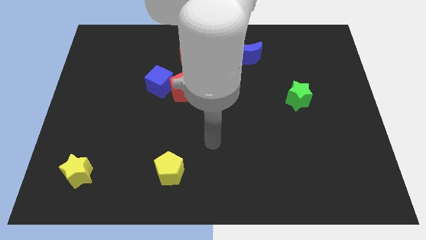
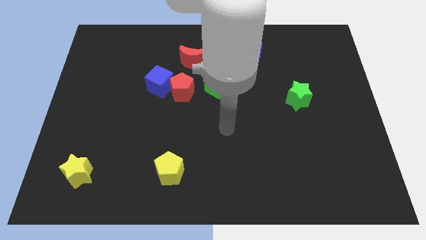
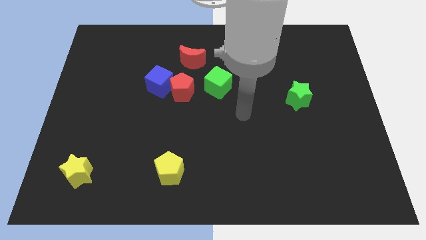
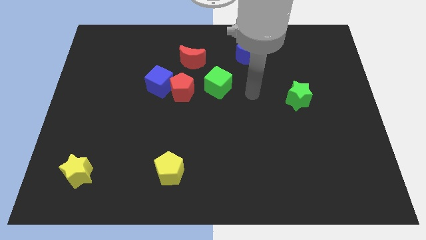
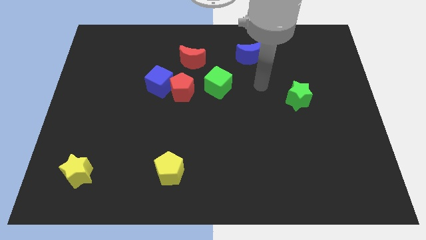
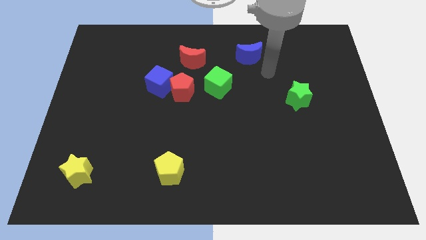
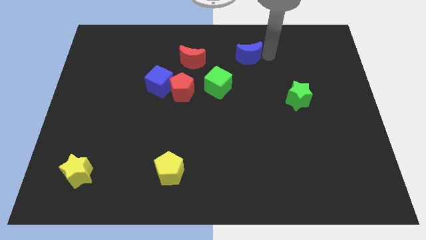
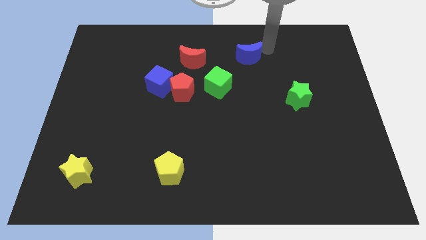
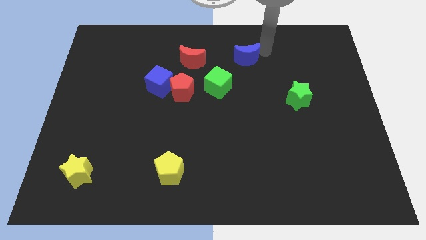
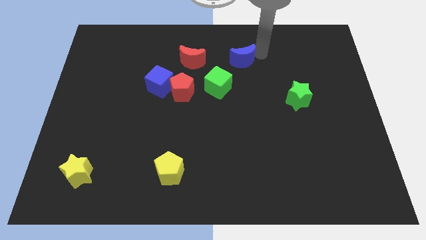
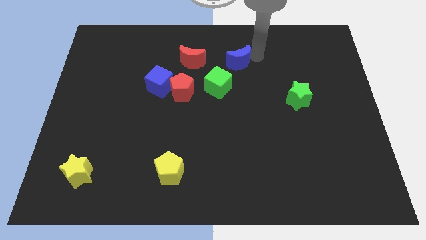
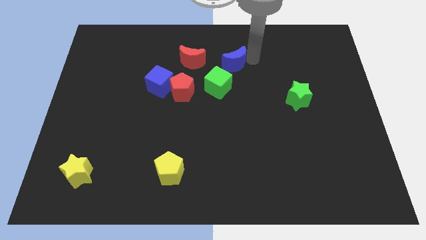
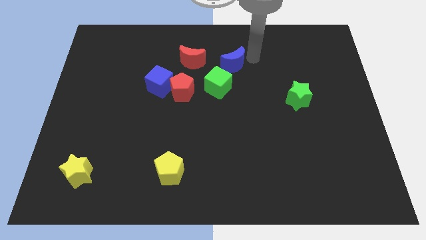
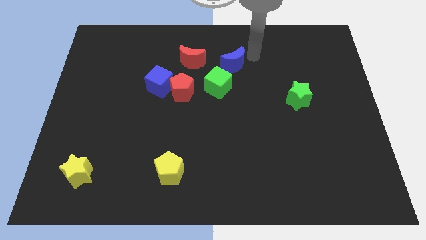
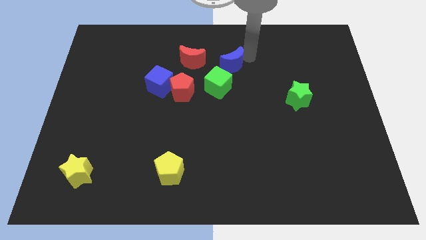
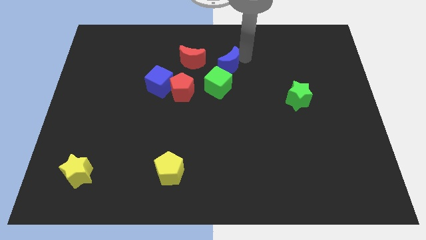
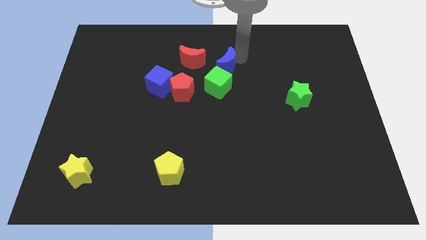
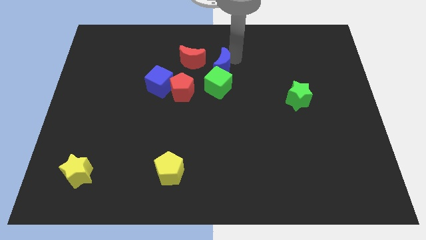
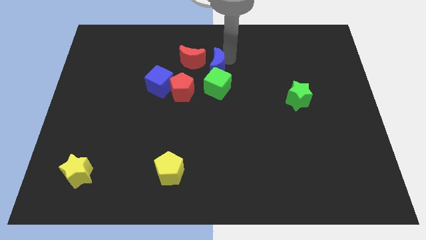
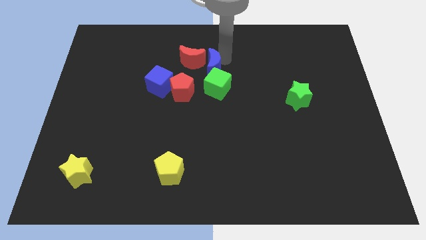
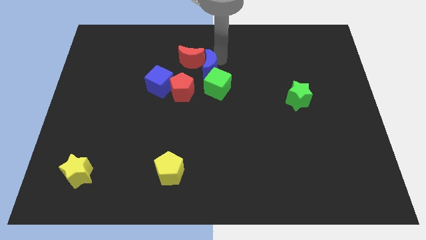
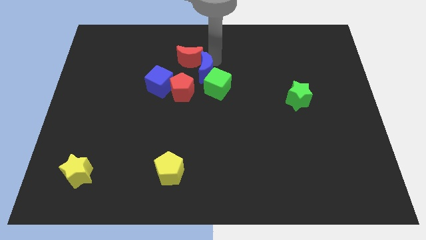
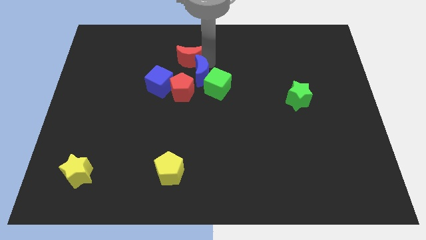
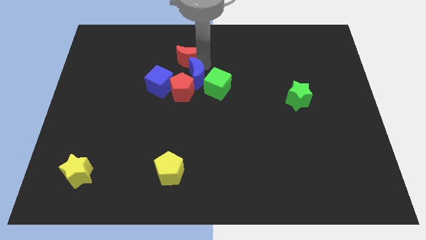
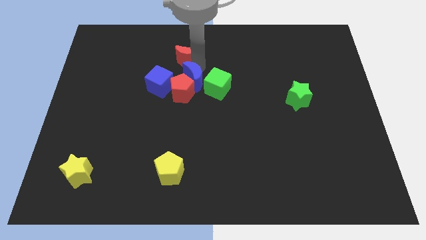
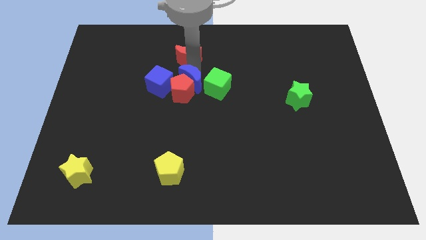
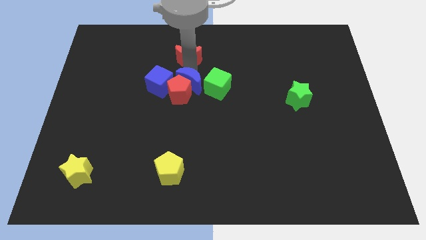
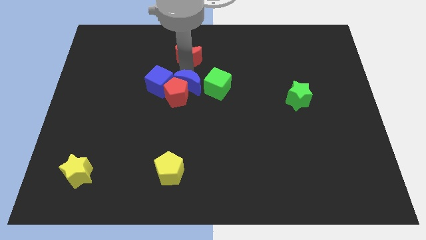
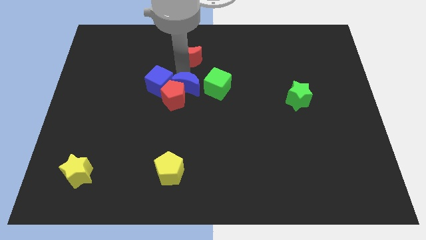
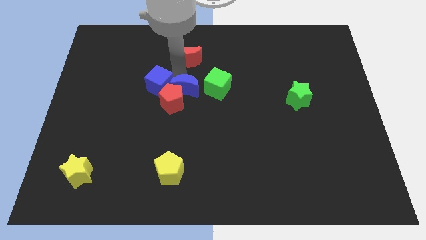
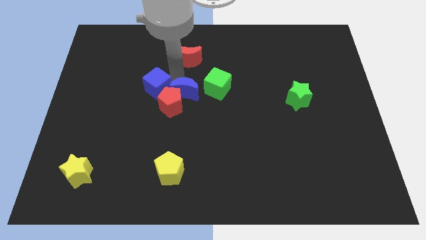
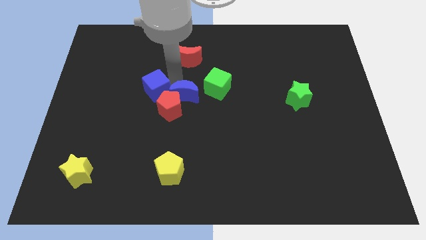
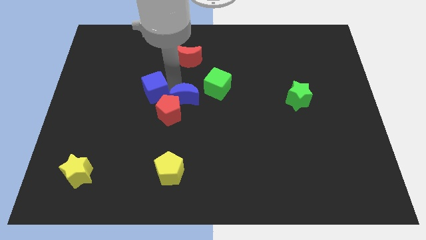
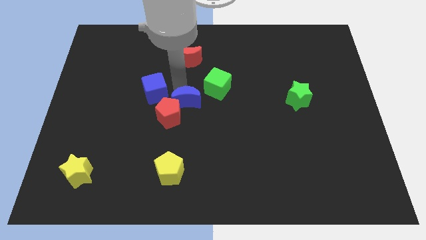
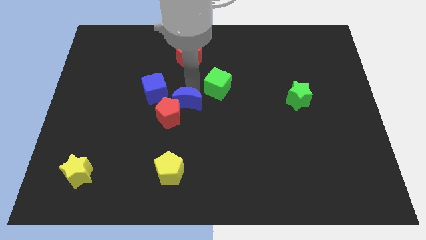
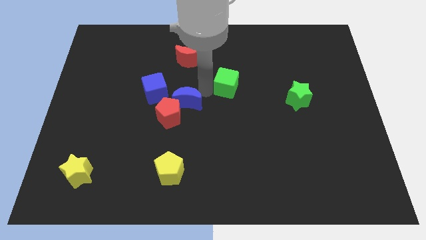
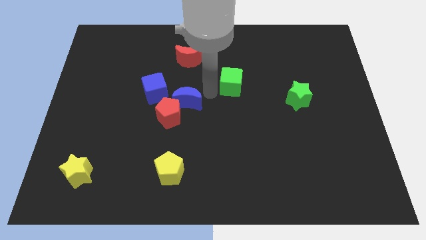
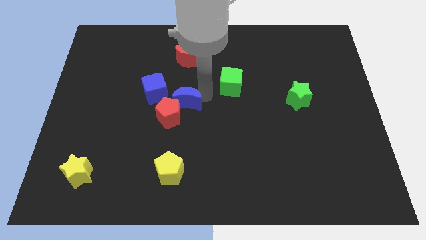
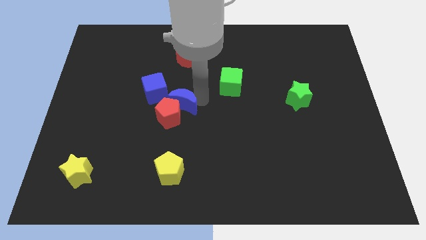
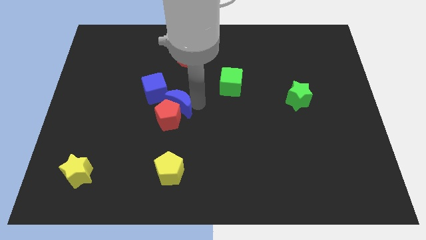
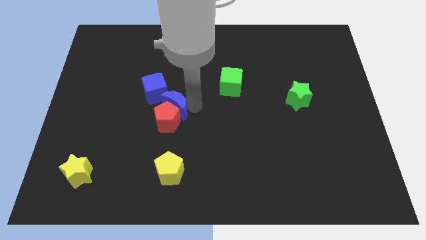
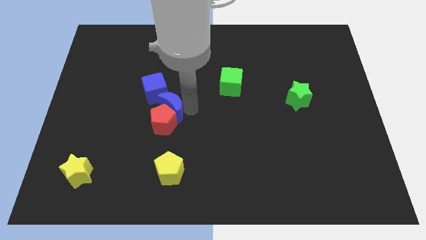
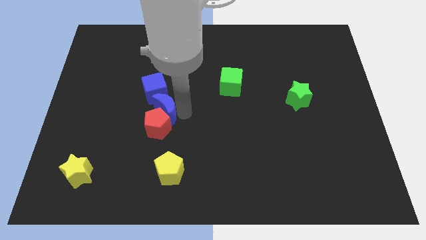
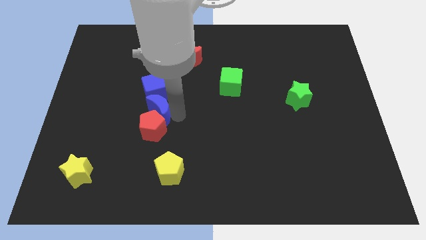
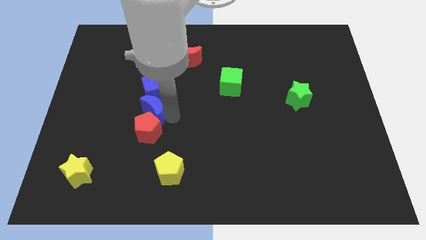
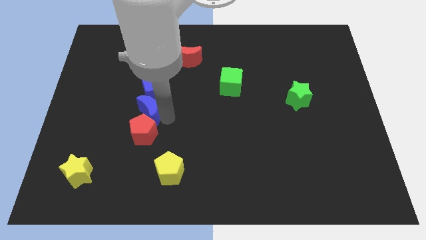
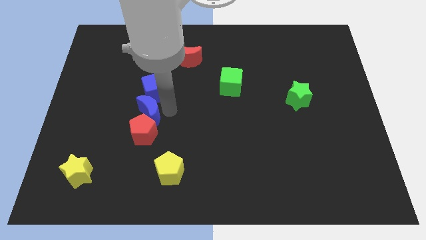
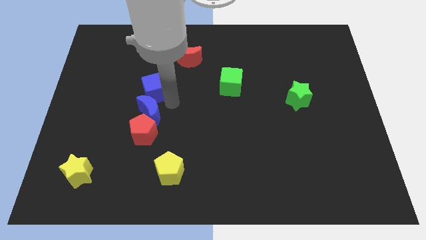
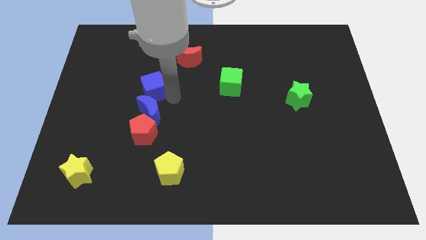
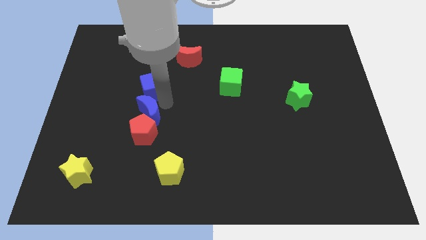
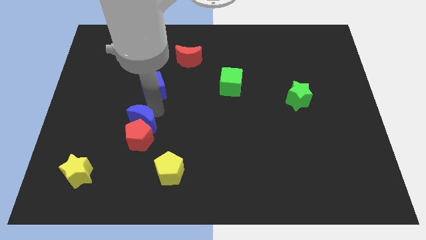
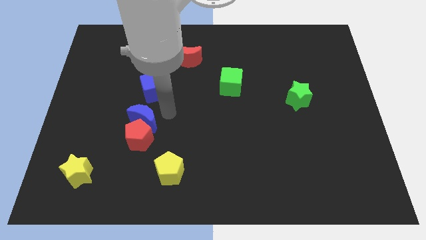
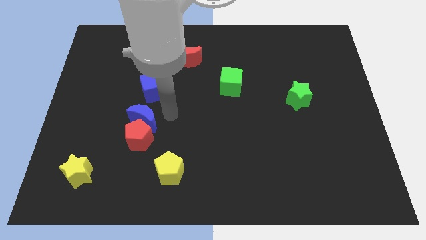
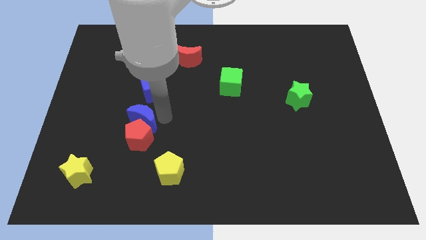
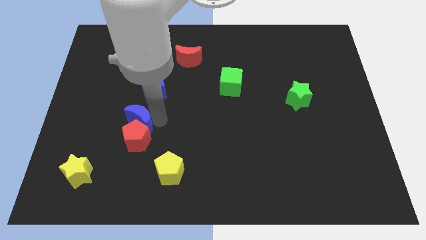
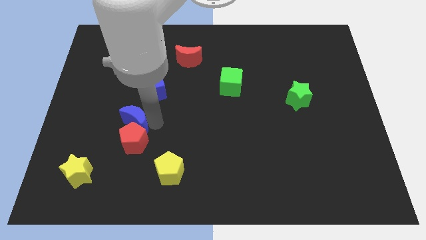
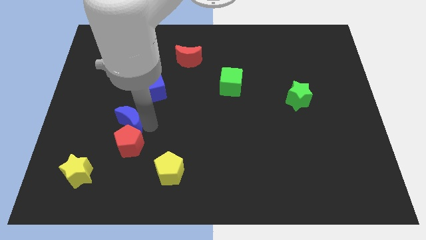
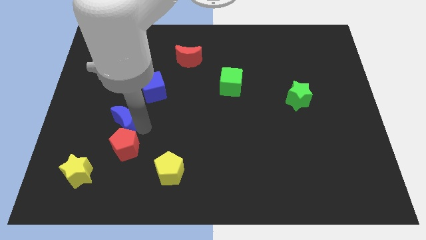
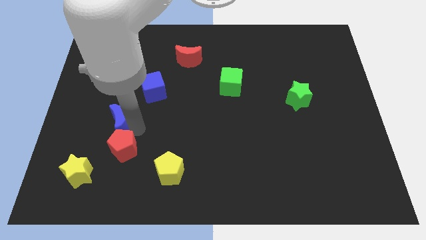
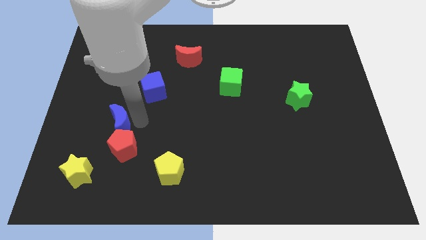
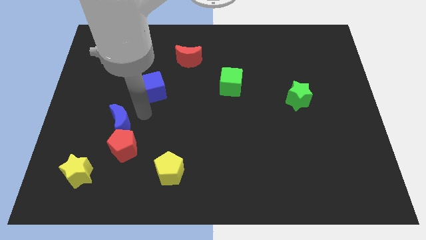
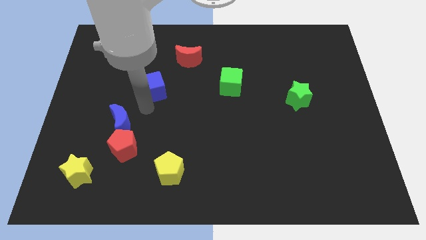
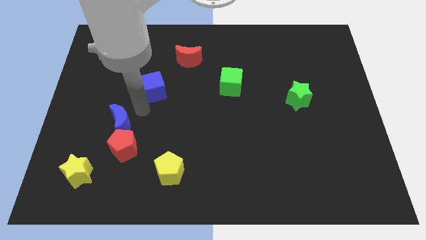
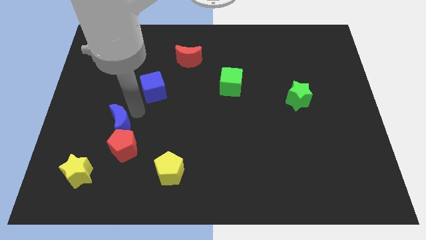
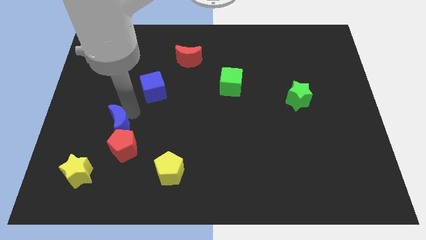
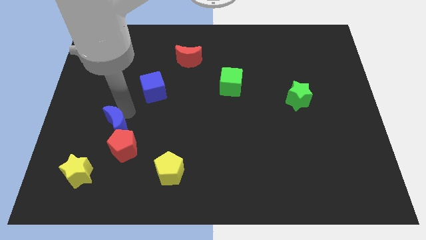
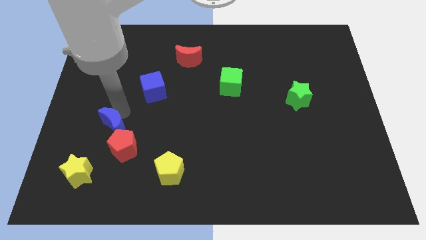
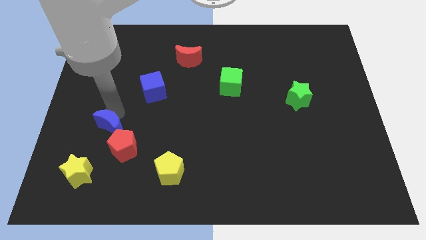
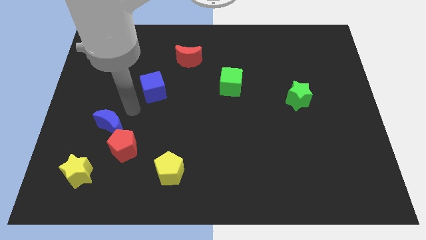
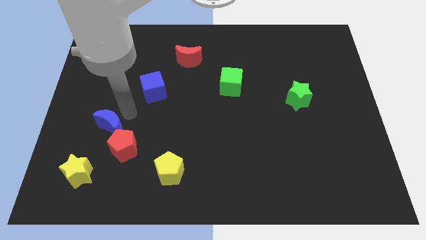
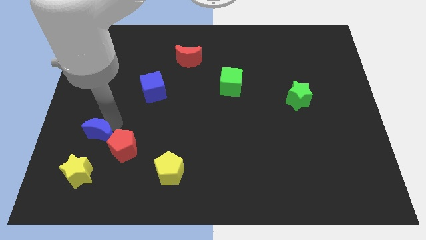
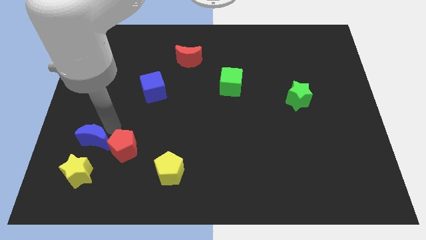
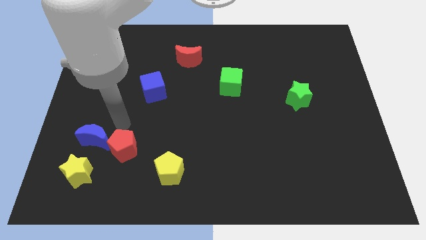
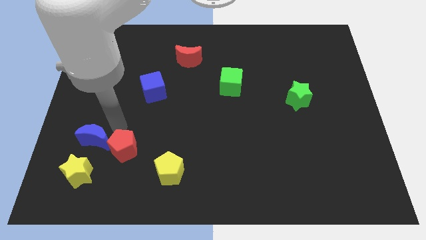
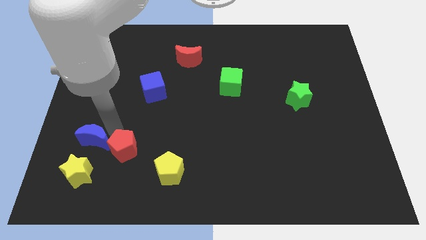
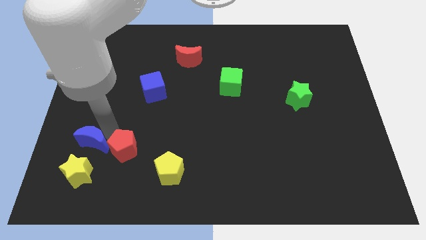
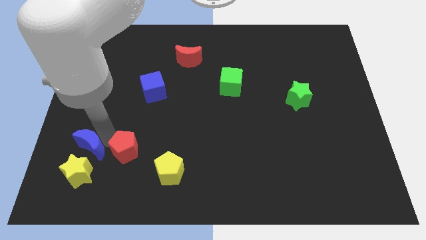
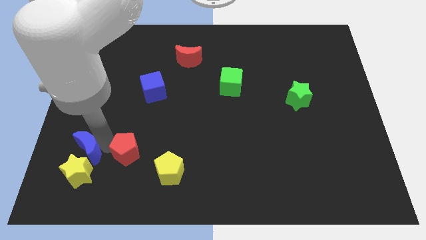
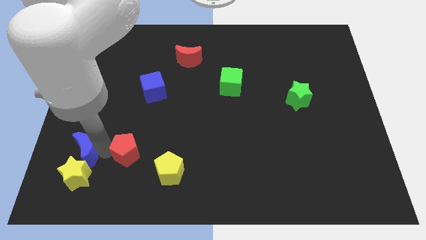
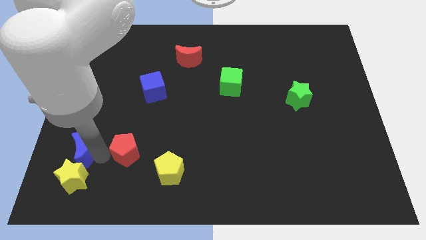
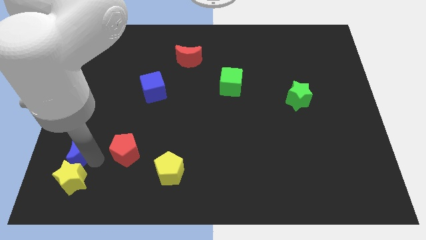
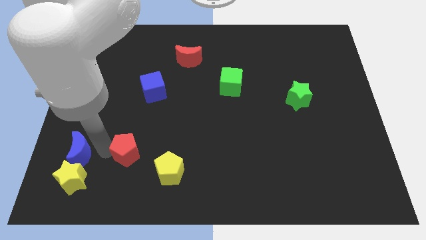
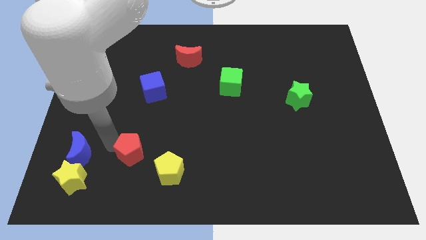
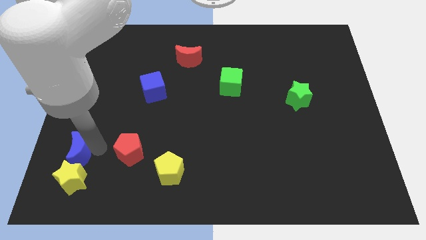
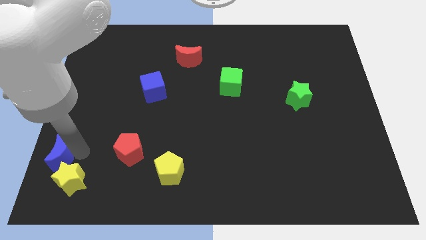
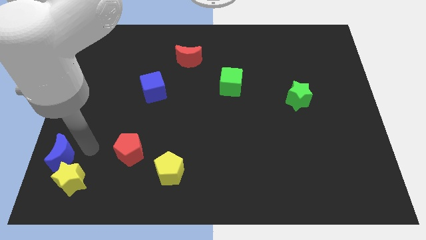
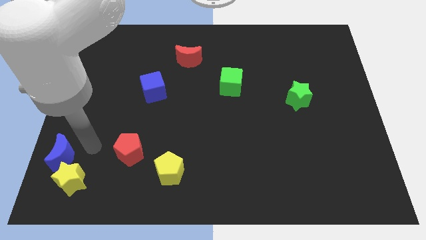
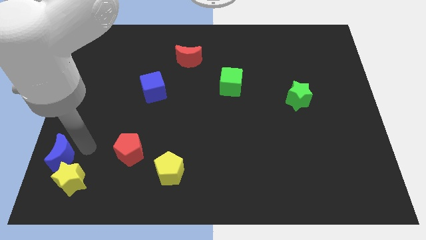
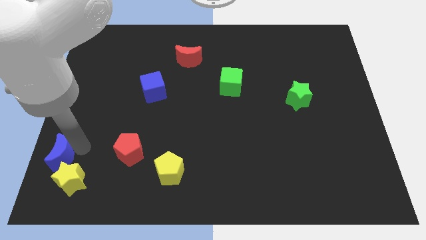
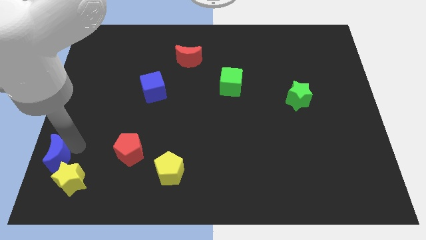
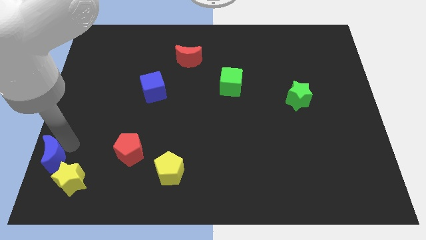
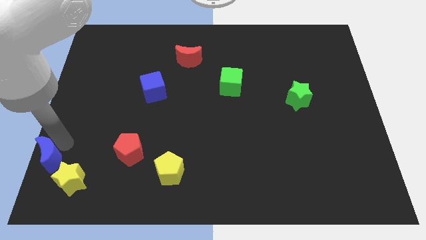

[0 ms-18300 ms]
put the blue moon to the bottom left corner
